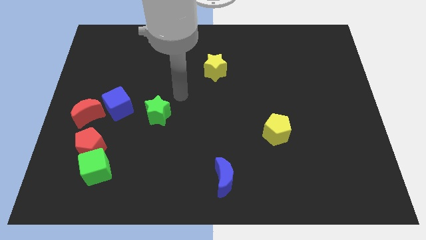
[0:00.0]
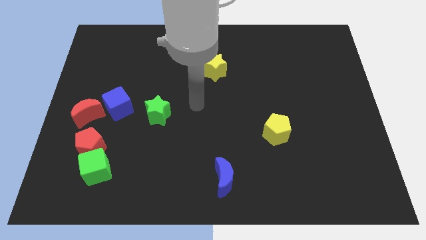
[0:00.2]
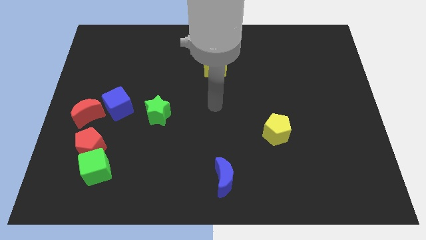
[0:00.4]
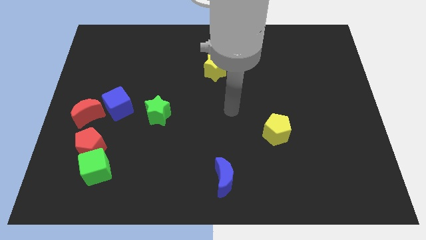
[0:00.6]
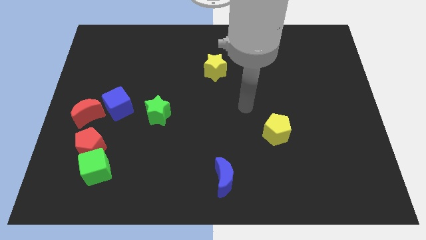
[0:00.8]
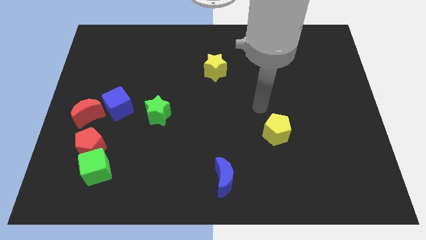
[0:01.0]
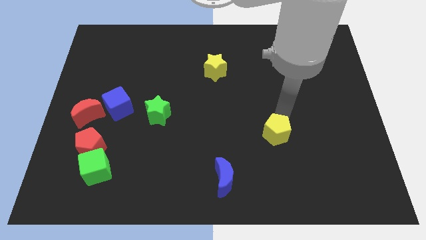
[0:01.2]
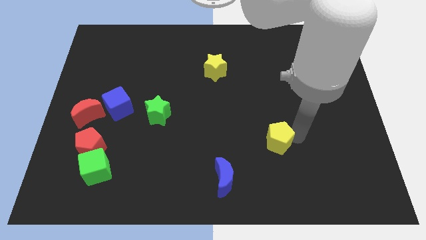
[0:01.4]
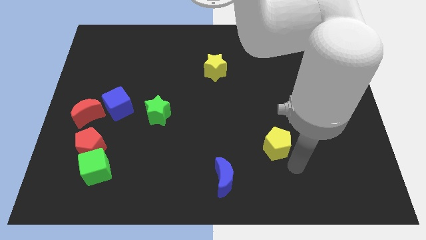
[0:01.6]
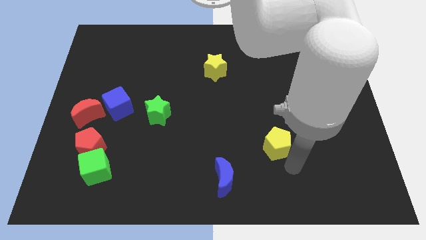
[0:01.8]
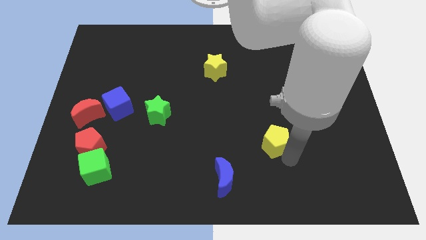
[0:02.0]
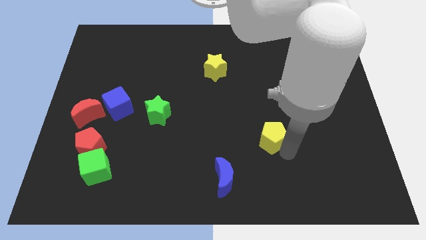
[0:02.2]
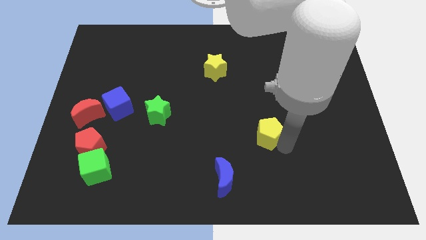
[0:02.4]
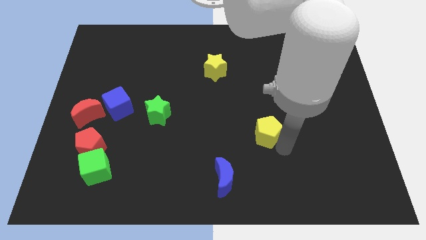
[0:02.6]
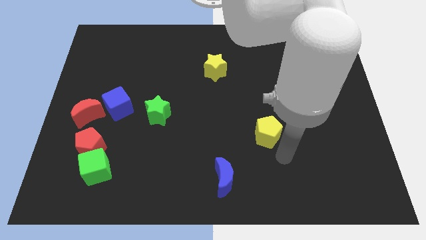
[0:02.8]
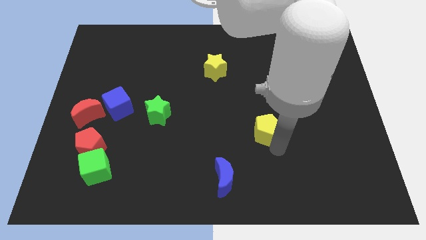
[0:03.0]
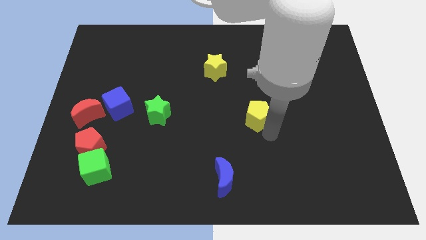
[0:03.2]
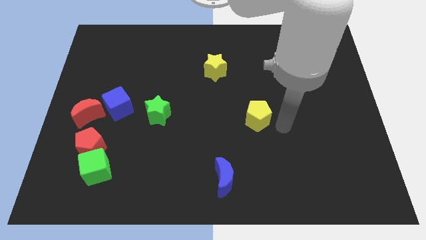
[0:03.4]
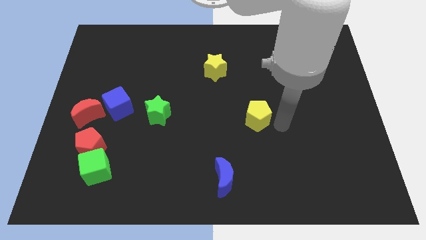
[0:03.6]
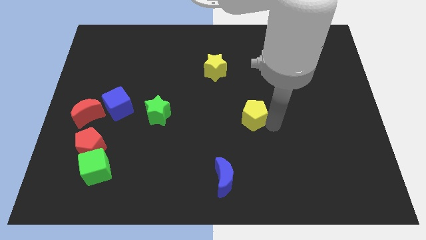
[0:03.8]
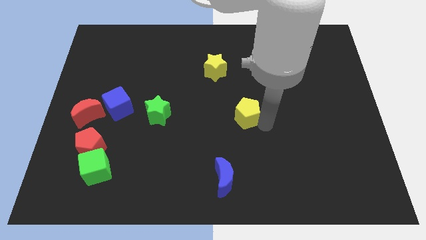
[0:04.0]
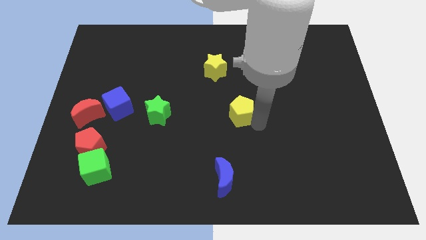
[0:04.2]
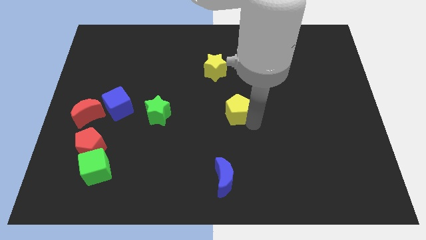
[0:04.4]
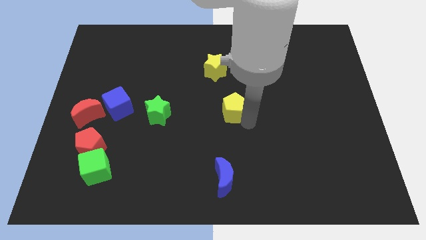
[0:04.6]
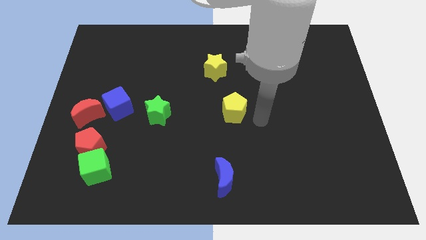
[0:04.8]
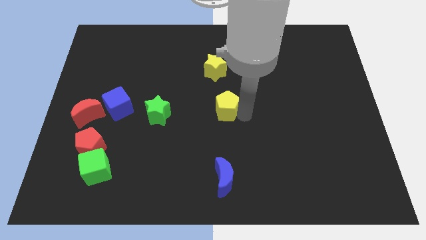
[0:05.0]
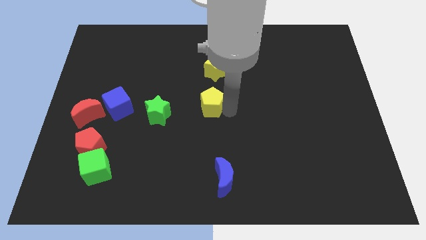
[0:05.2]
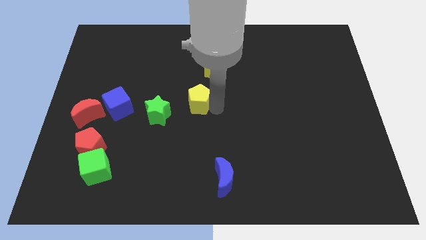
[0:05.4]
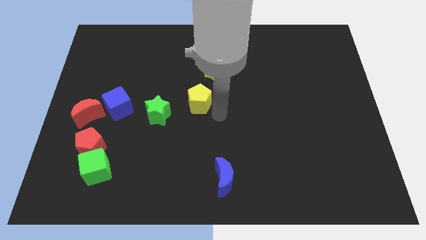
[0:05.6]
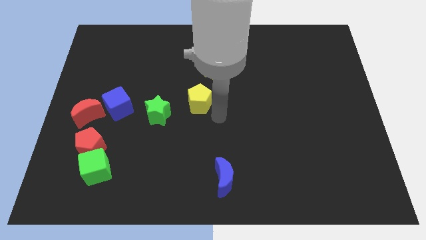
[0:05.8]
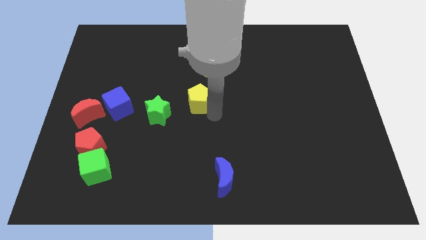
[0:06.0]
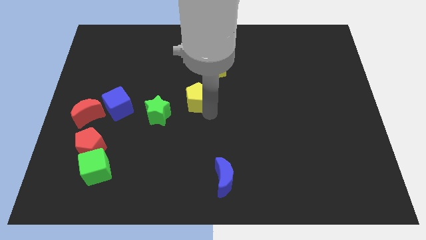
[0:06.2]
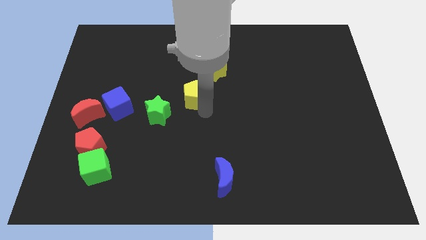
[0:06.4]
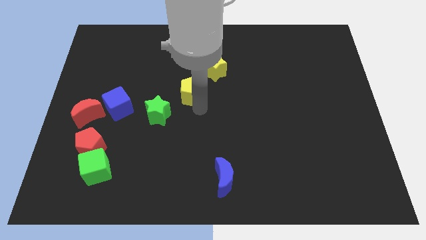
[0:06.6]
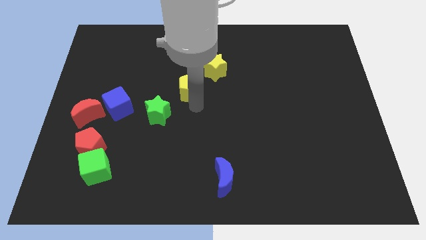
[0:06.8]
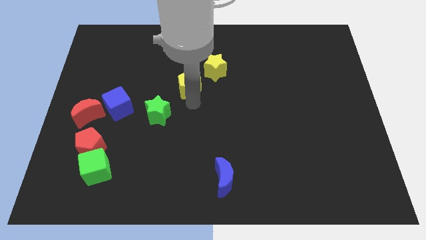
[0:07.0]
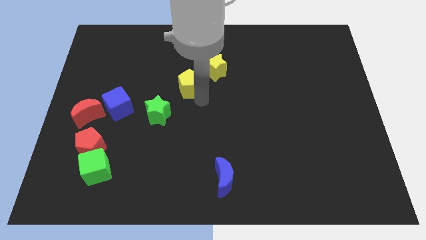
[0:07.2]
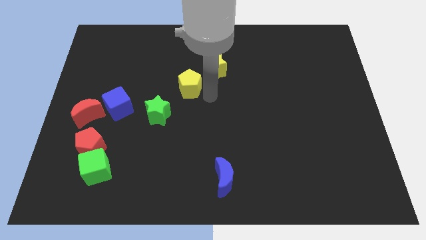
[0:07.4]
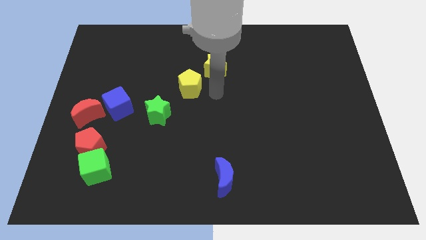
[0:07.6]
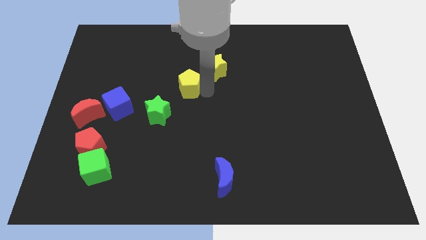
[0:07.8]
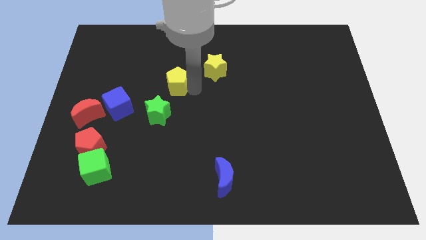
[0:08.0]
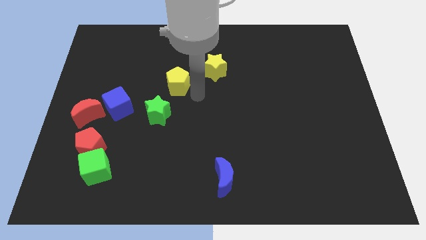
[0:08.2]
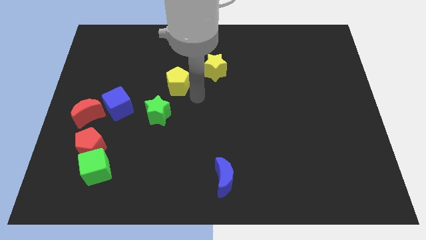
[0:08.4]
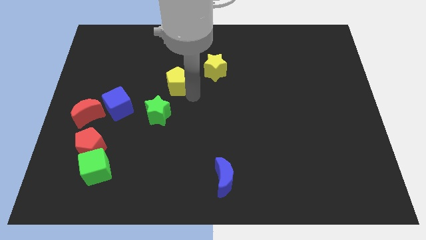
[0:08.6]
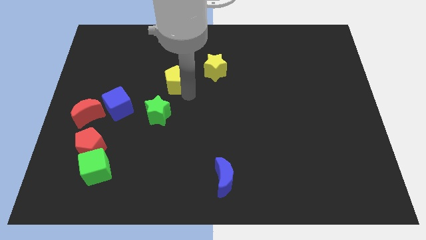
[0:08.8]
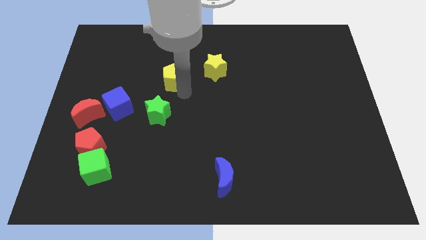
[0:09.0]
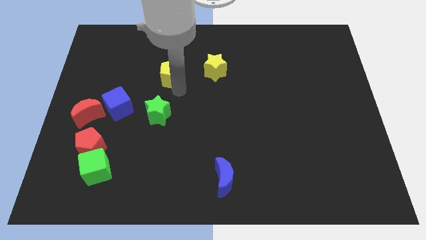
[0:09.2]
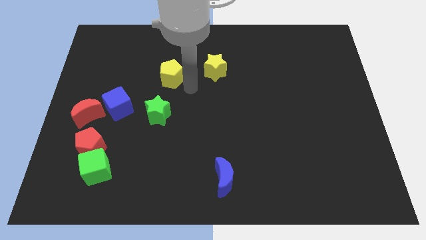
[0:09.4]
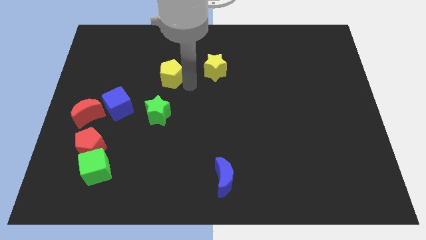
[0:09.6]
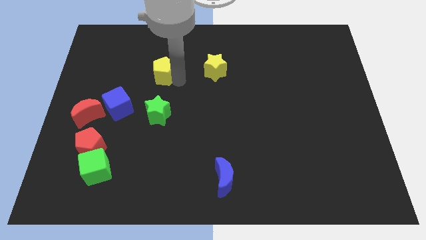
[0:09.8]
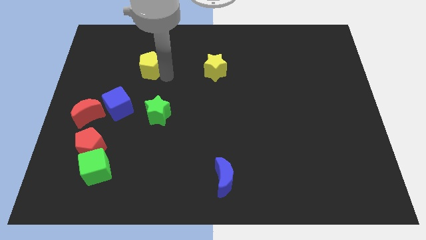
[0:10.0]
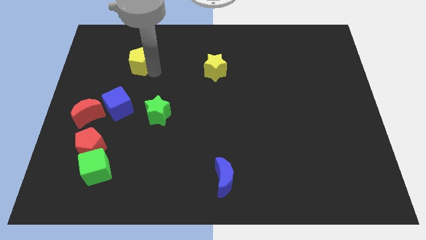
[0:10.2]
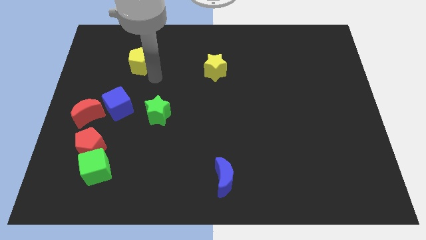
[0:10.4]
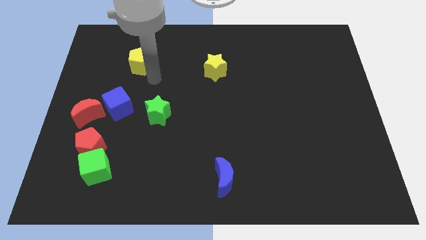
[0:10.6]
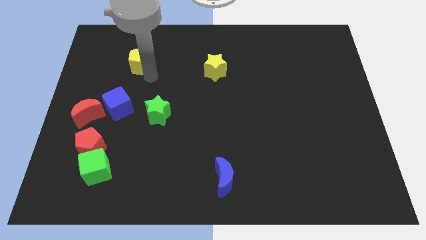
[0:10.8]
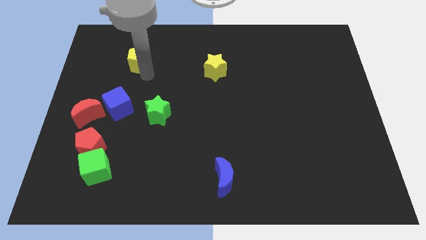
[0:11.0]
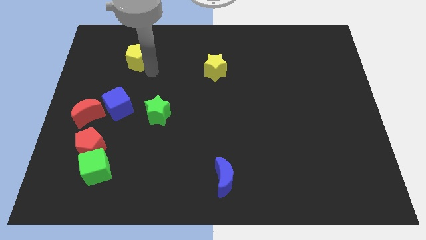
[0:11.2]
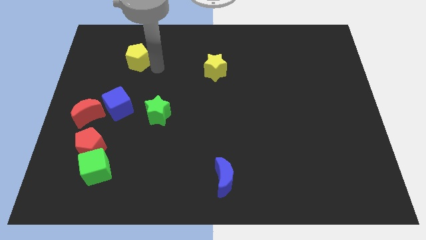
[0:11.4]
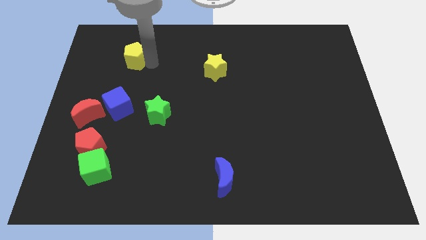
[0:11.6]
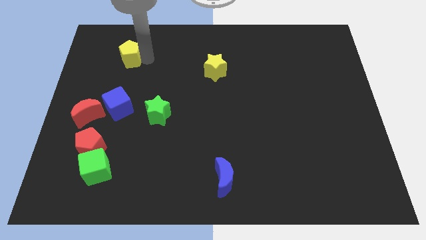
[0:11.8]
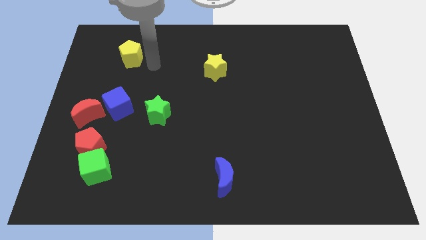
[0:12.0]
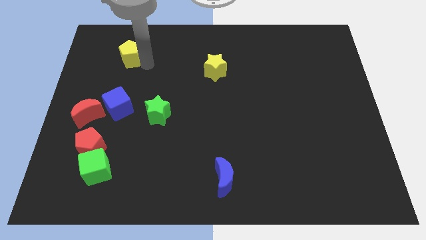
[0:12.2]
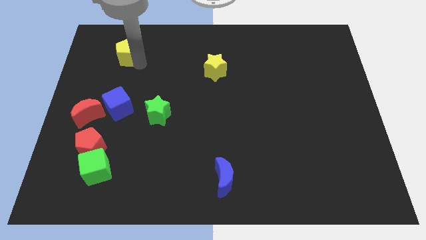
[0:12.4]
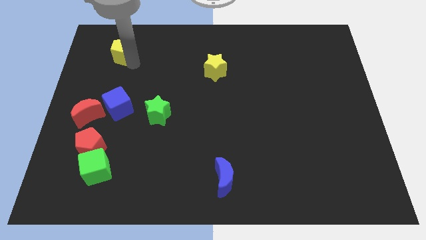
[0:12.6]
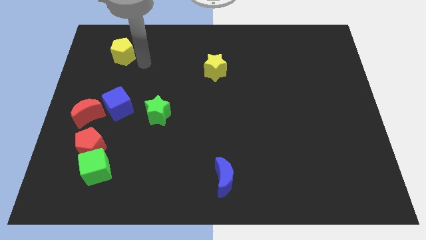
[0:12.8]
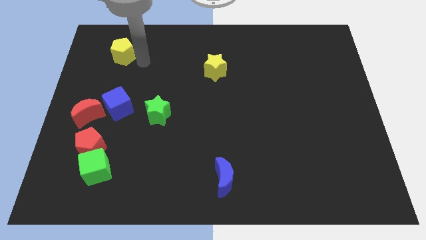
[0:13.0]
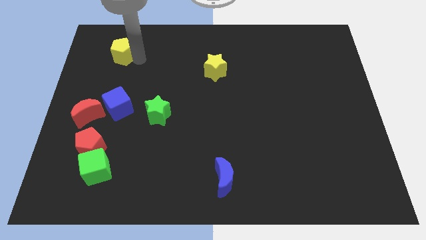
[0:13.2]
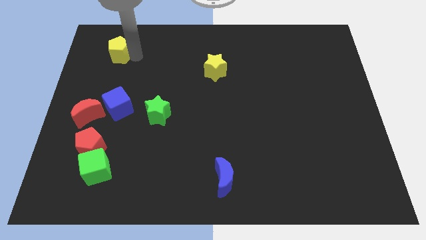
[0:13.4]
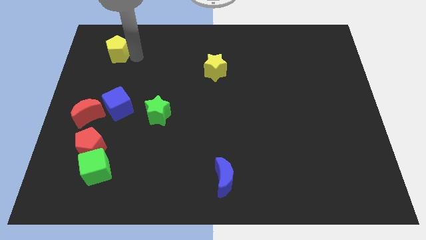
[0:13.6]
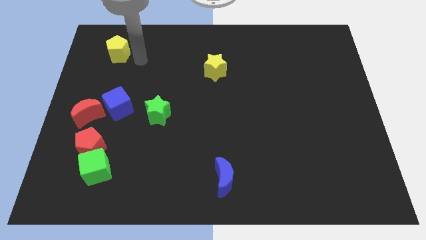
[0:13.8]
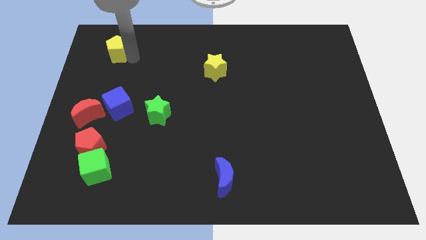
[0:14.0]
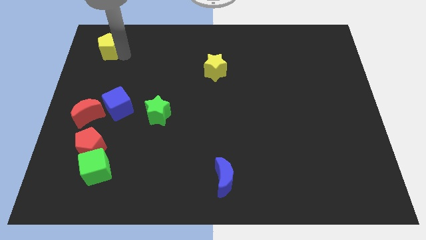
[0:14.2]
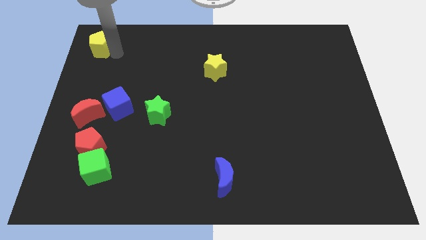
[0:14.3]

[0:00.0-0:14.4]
slide the yellow pentagon to the upper left corner
